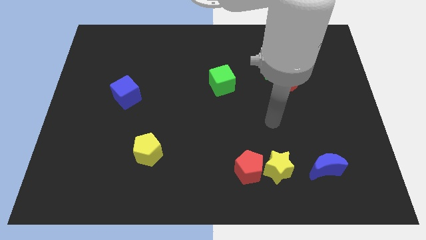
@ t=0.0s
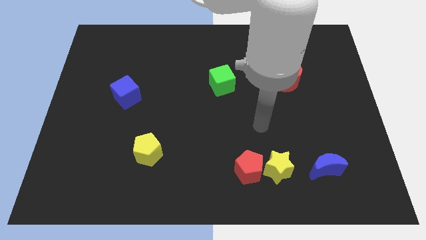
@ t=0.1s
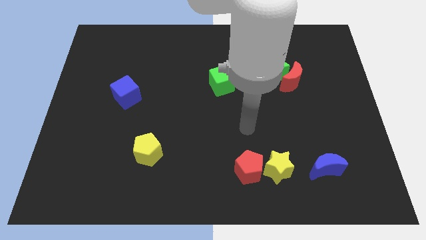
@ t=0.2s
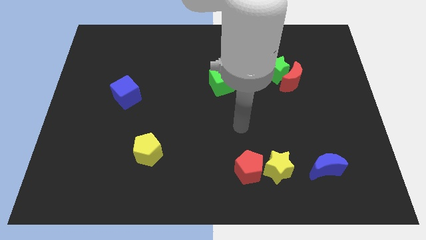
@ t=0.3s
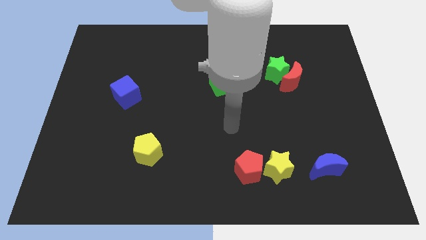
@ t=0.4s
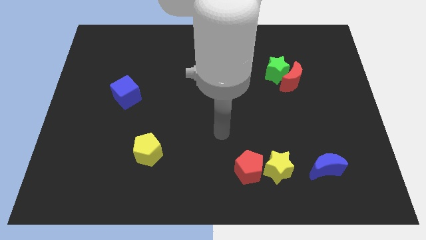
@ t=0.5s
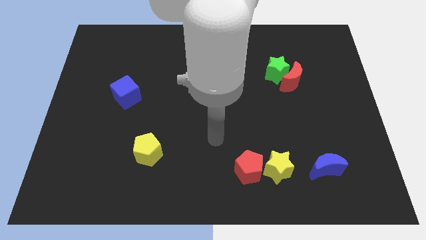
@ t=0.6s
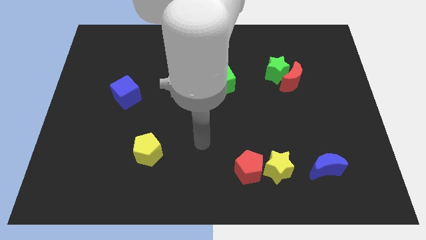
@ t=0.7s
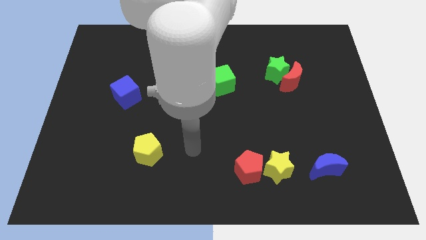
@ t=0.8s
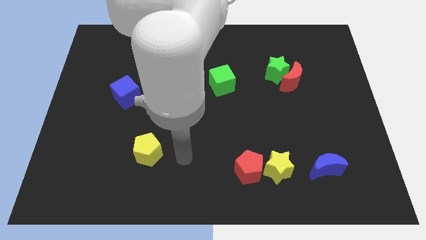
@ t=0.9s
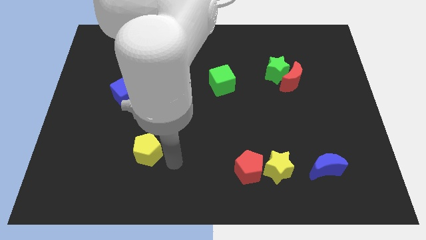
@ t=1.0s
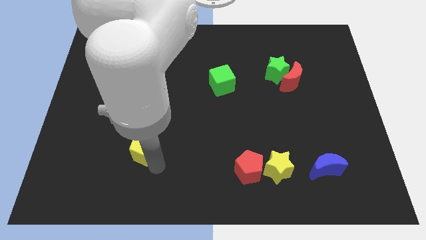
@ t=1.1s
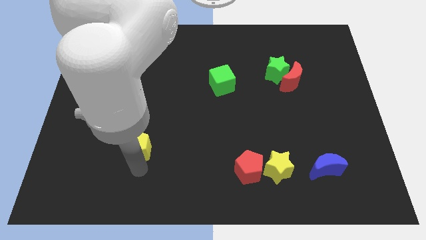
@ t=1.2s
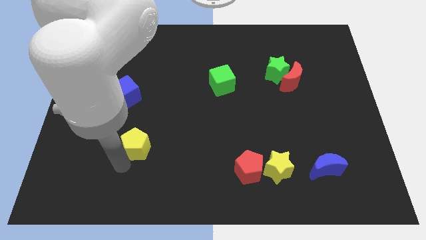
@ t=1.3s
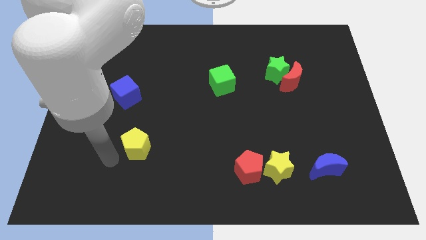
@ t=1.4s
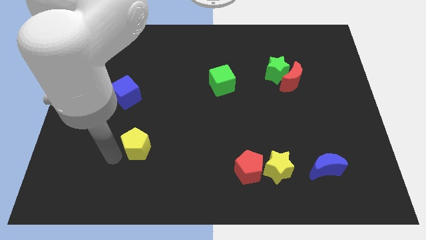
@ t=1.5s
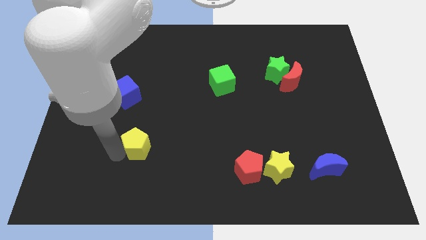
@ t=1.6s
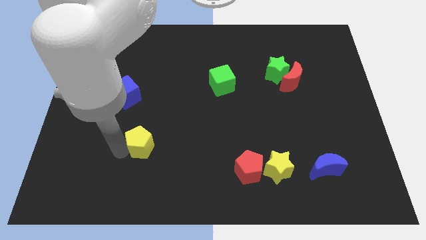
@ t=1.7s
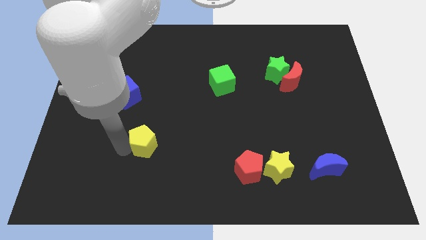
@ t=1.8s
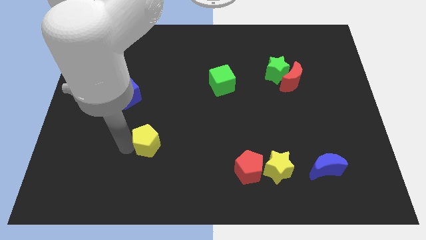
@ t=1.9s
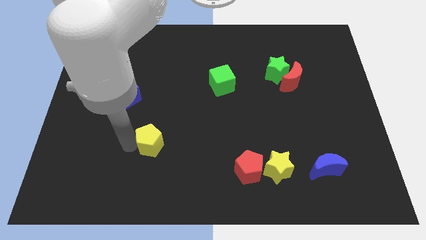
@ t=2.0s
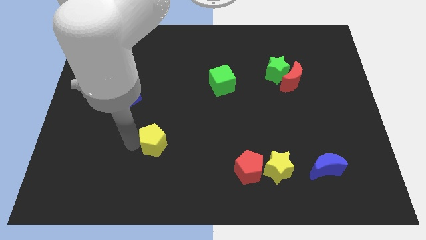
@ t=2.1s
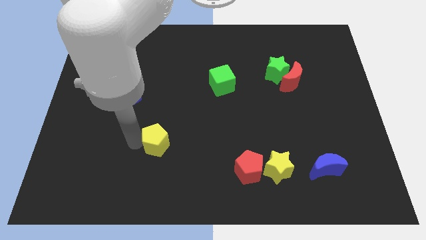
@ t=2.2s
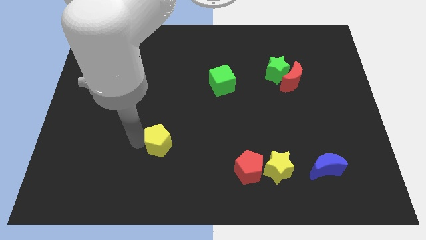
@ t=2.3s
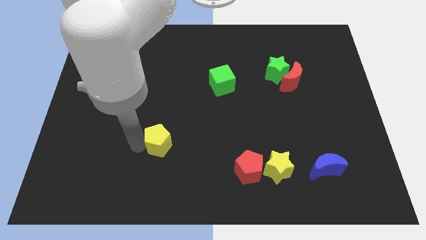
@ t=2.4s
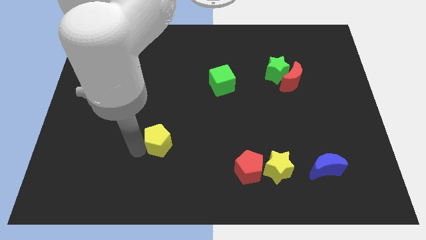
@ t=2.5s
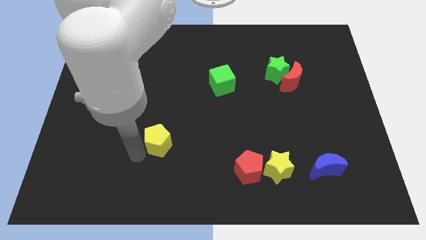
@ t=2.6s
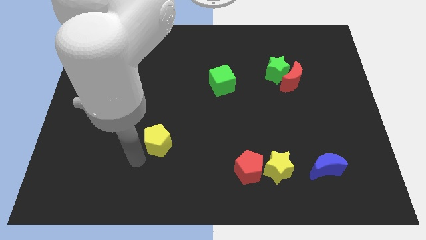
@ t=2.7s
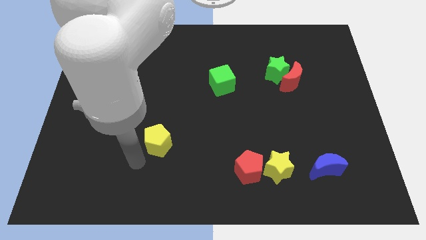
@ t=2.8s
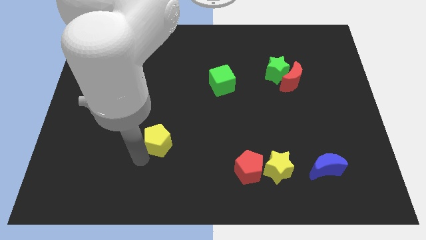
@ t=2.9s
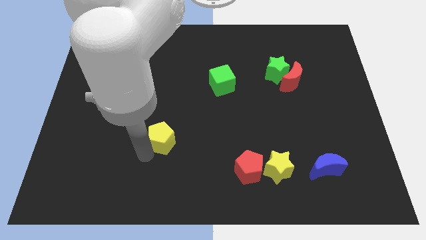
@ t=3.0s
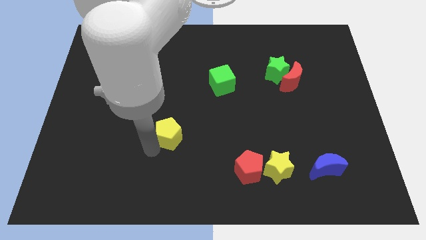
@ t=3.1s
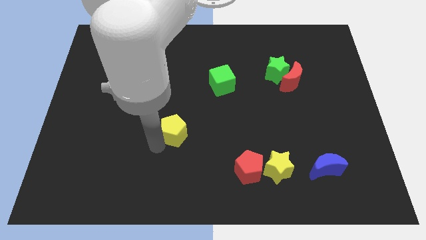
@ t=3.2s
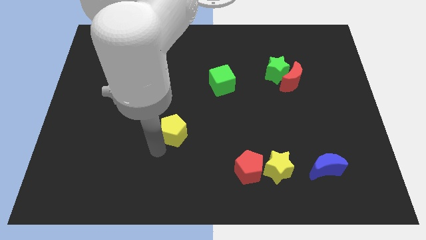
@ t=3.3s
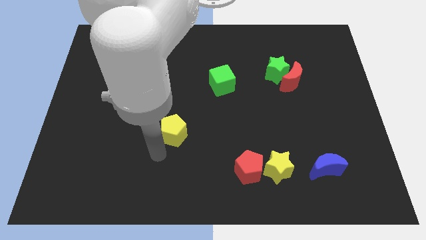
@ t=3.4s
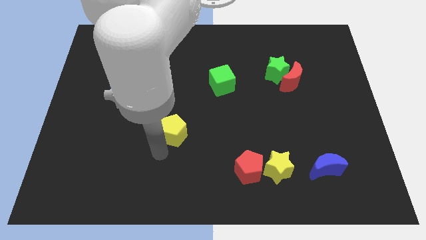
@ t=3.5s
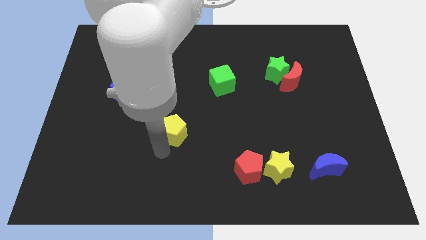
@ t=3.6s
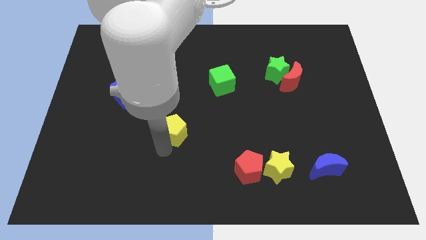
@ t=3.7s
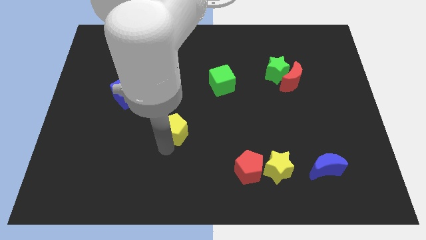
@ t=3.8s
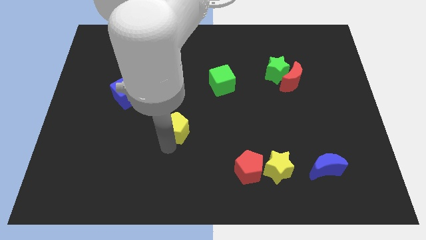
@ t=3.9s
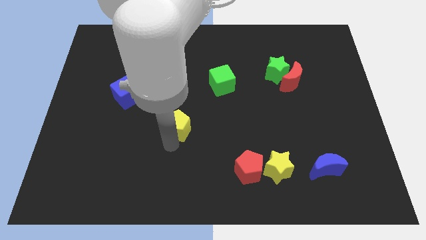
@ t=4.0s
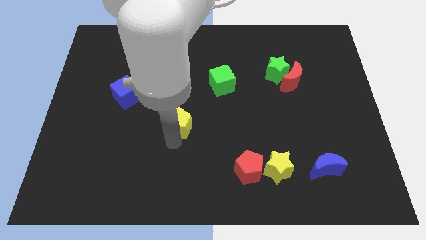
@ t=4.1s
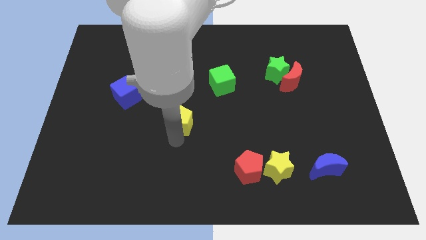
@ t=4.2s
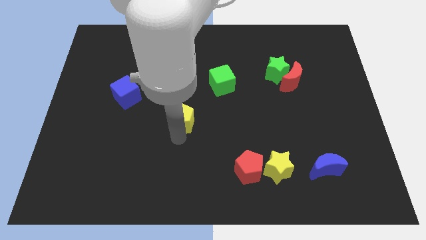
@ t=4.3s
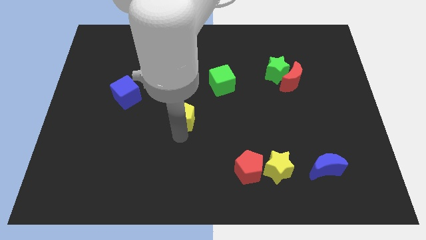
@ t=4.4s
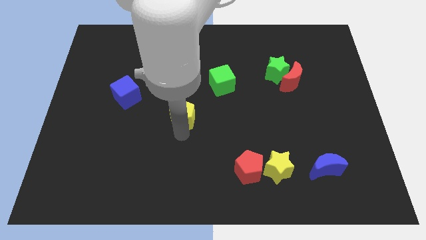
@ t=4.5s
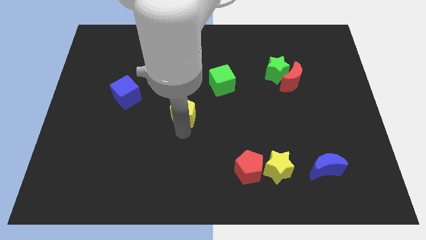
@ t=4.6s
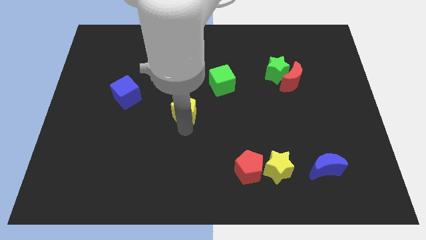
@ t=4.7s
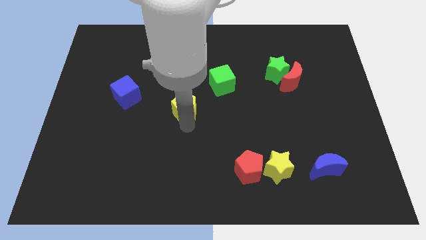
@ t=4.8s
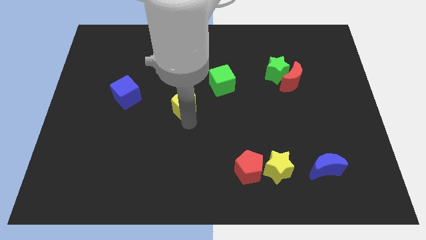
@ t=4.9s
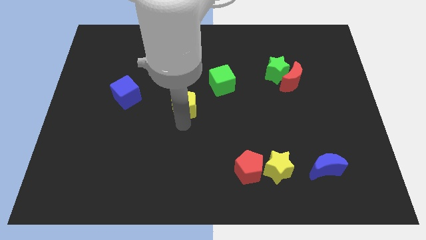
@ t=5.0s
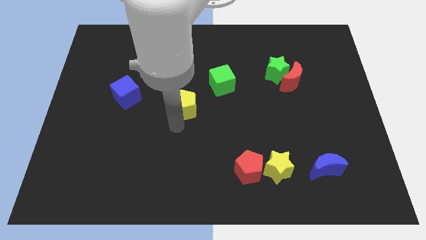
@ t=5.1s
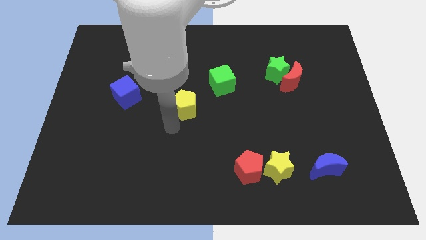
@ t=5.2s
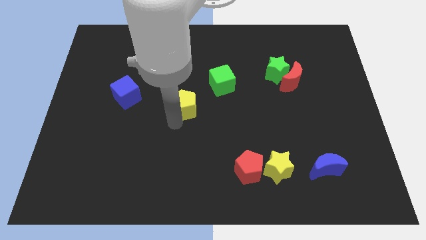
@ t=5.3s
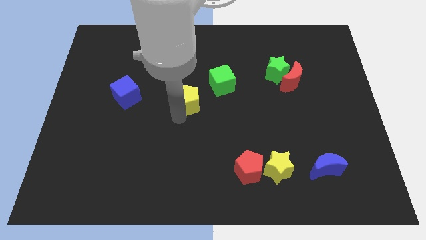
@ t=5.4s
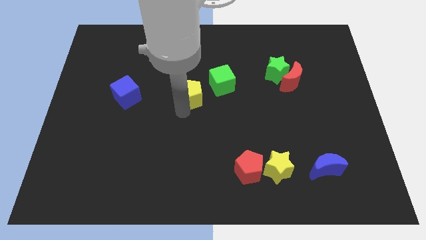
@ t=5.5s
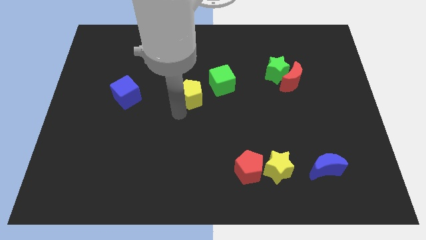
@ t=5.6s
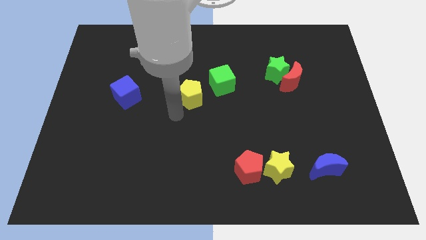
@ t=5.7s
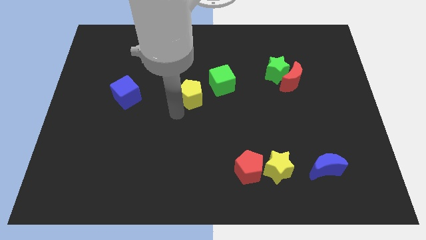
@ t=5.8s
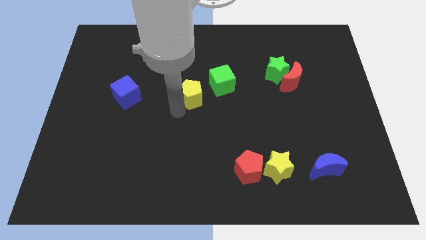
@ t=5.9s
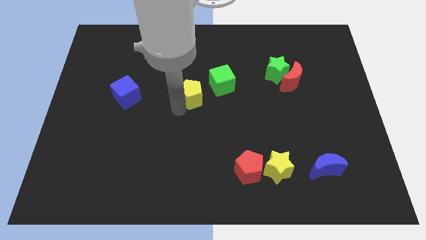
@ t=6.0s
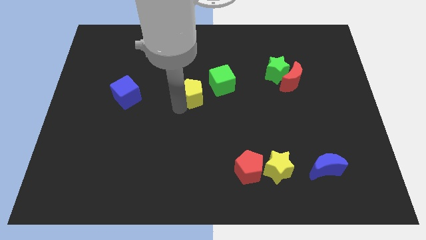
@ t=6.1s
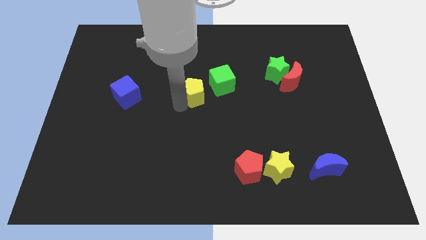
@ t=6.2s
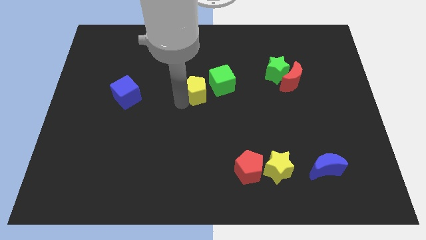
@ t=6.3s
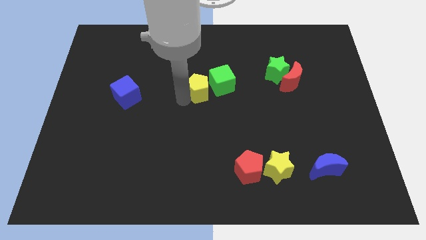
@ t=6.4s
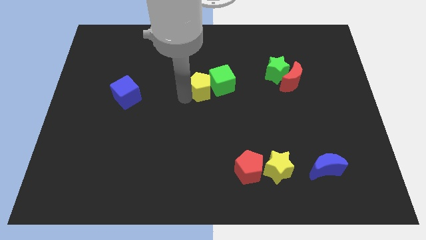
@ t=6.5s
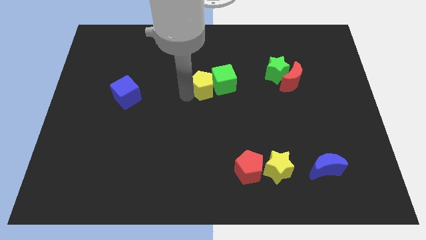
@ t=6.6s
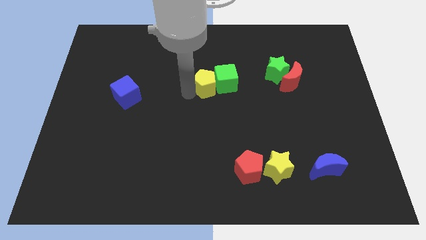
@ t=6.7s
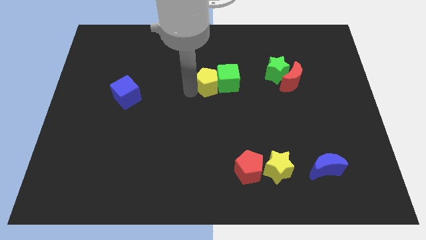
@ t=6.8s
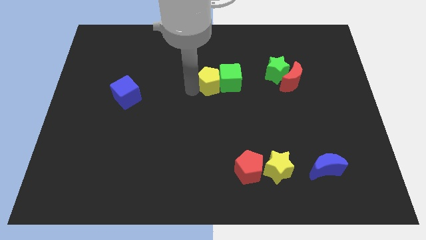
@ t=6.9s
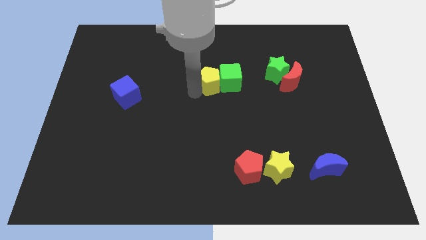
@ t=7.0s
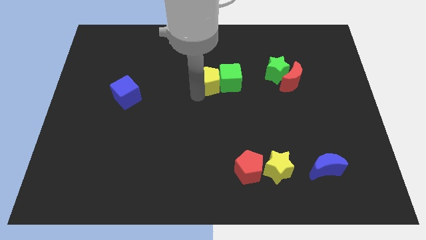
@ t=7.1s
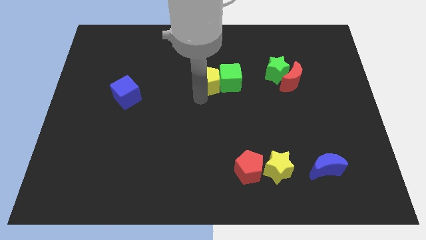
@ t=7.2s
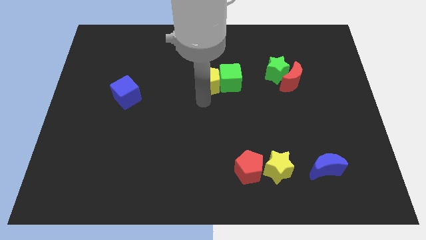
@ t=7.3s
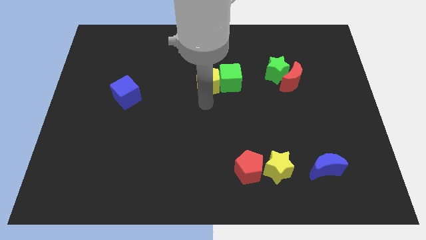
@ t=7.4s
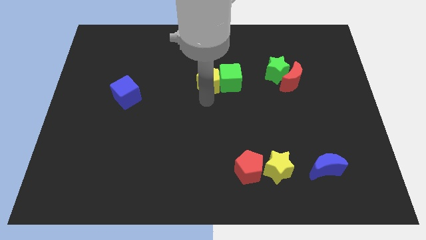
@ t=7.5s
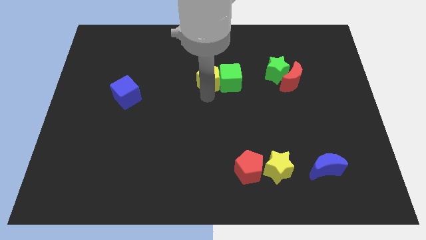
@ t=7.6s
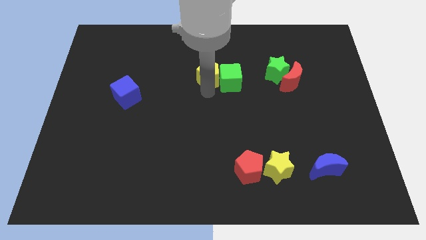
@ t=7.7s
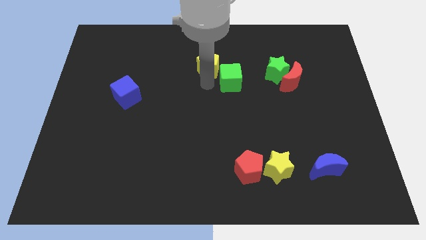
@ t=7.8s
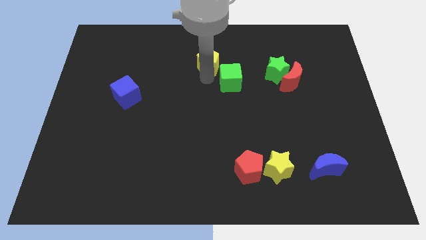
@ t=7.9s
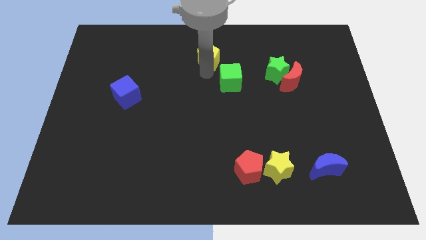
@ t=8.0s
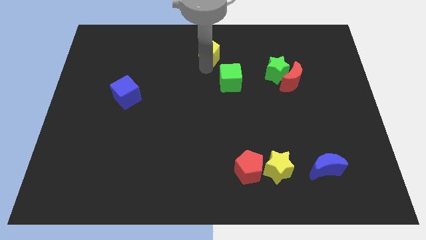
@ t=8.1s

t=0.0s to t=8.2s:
move the yellow pentagon to the towards your base
